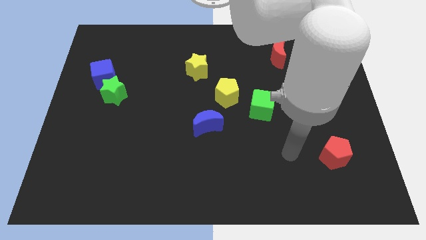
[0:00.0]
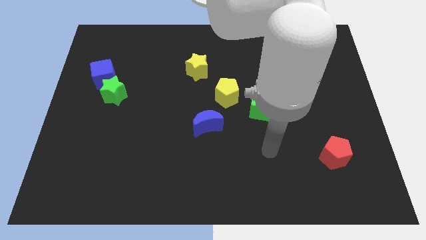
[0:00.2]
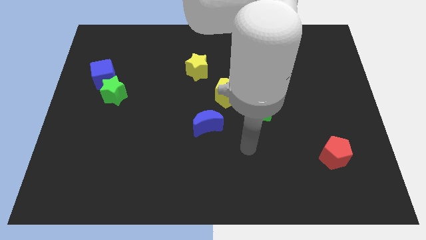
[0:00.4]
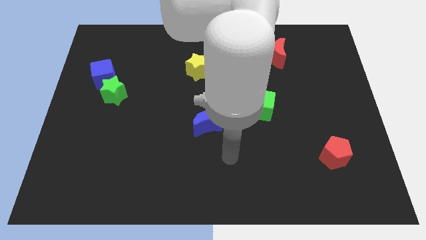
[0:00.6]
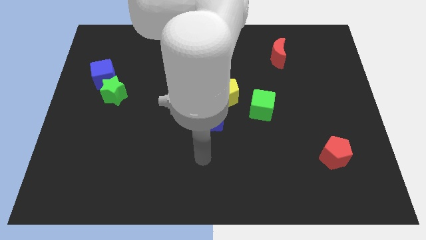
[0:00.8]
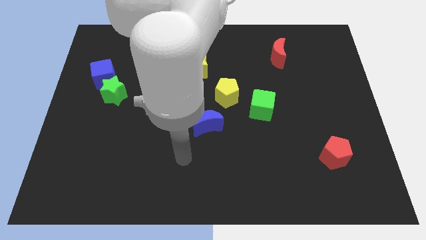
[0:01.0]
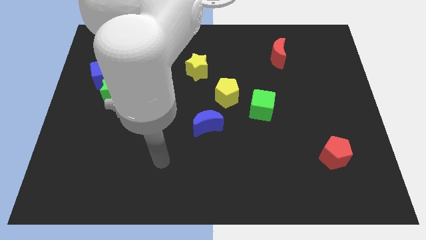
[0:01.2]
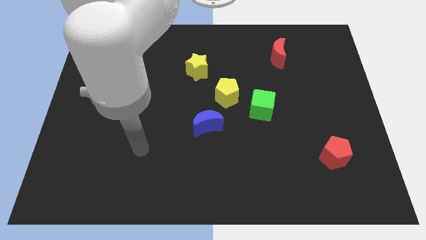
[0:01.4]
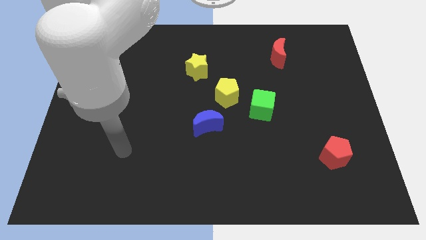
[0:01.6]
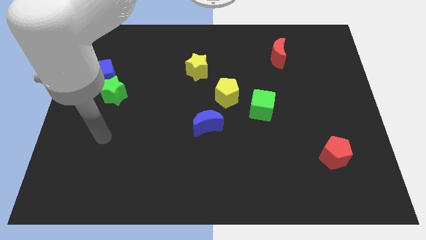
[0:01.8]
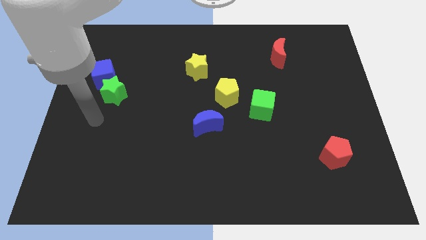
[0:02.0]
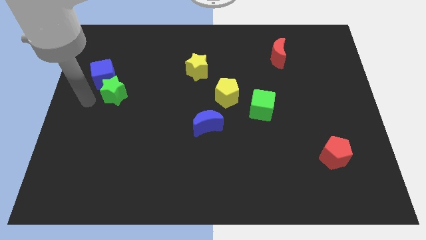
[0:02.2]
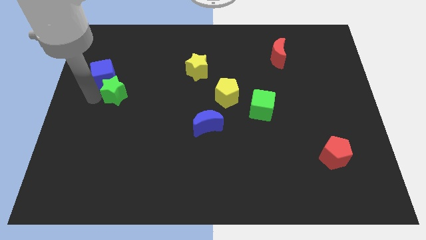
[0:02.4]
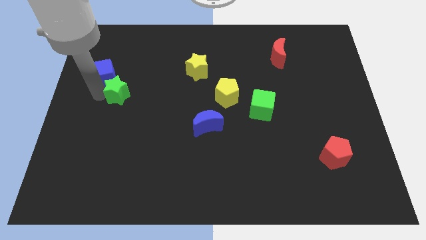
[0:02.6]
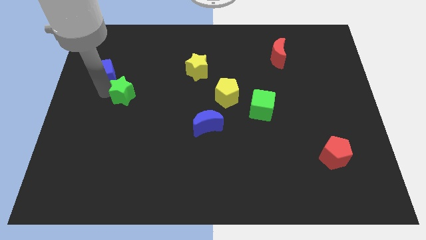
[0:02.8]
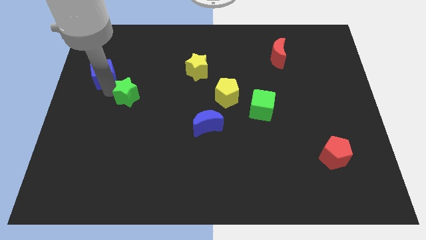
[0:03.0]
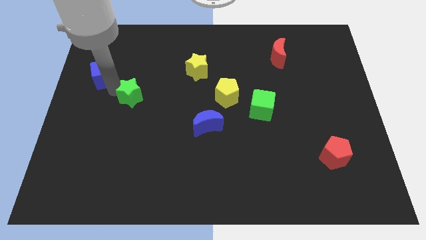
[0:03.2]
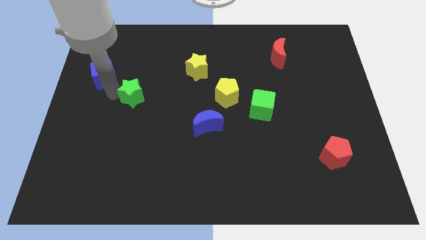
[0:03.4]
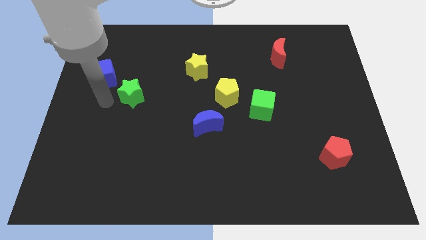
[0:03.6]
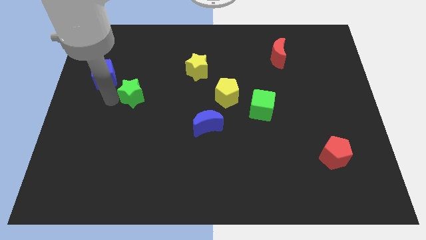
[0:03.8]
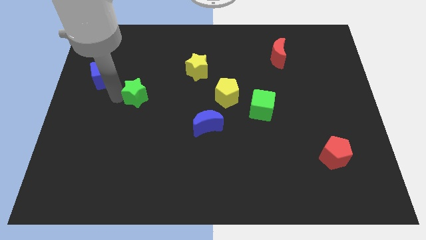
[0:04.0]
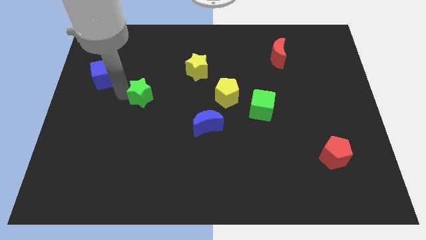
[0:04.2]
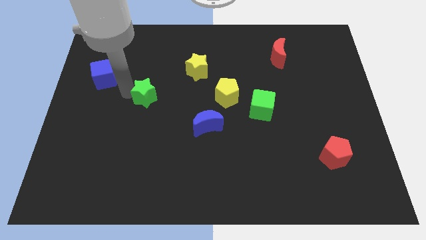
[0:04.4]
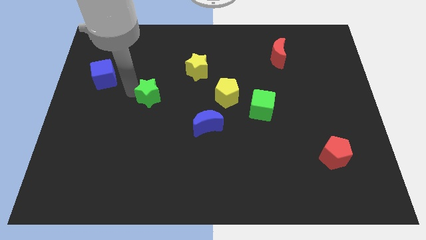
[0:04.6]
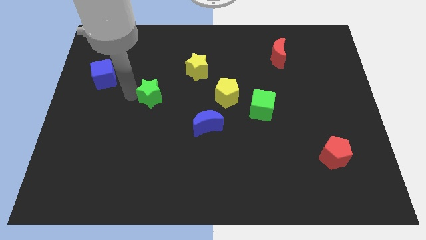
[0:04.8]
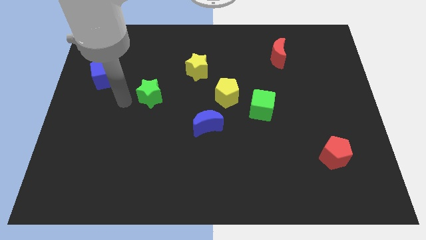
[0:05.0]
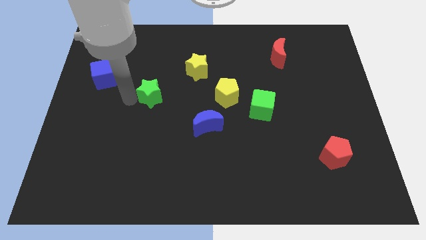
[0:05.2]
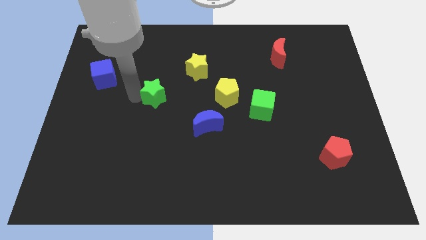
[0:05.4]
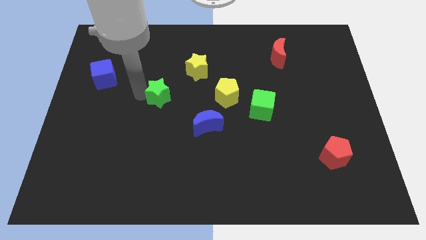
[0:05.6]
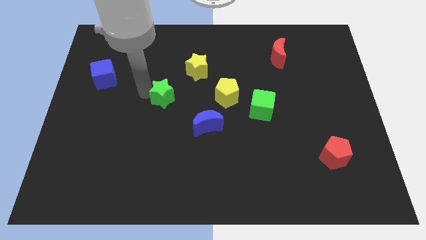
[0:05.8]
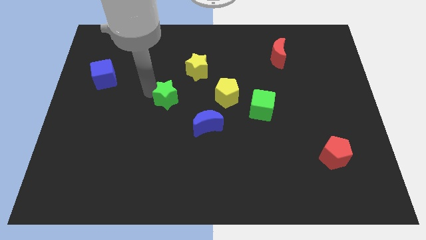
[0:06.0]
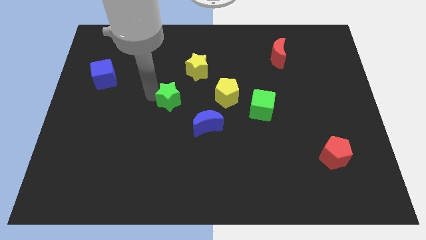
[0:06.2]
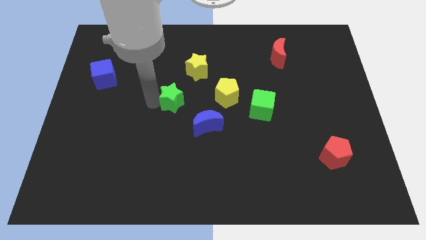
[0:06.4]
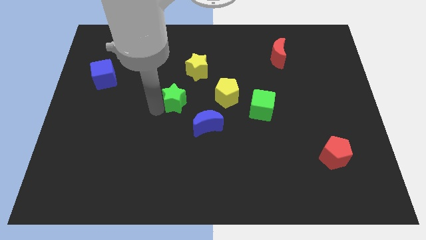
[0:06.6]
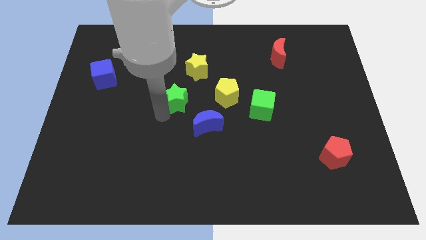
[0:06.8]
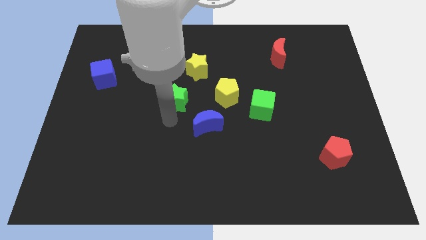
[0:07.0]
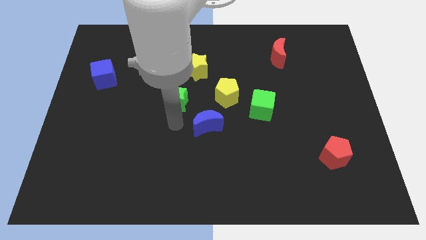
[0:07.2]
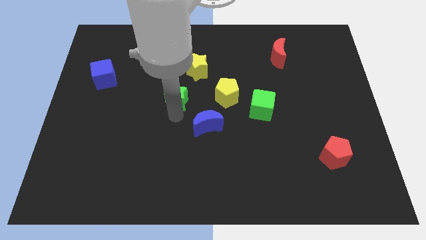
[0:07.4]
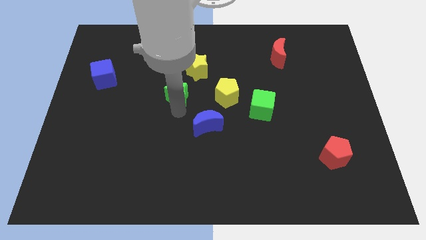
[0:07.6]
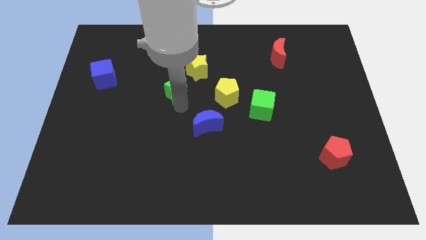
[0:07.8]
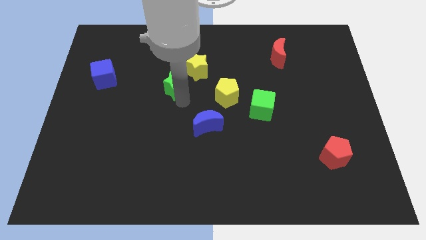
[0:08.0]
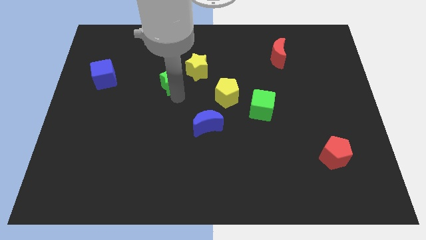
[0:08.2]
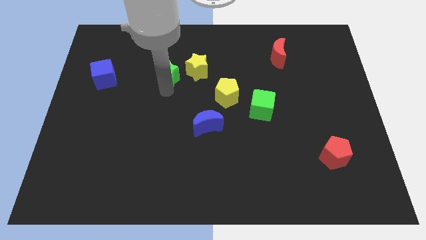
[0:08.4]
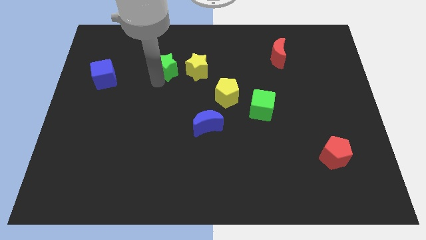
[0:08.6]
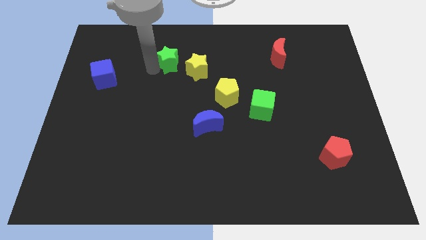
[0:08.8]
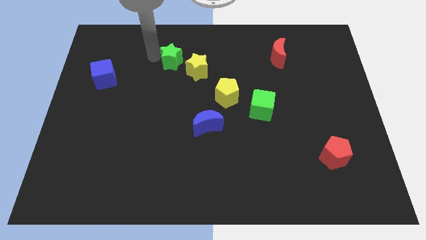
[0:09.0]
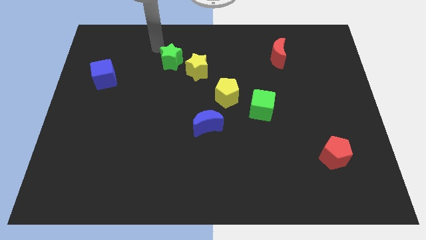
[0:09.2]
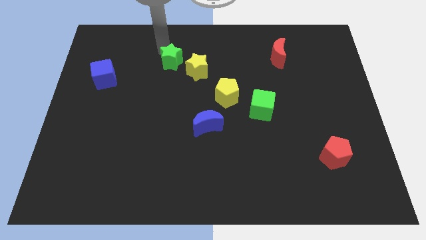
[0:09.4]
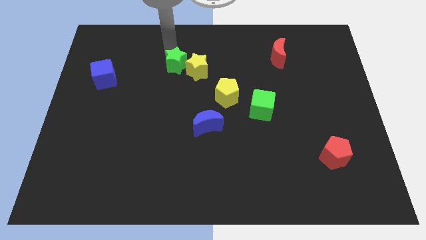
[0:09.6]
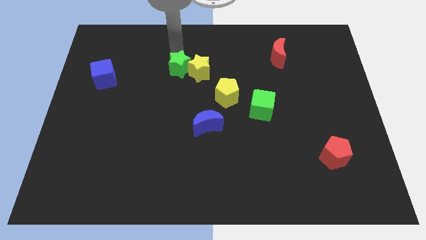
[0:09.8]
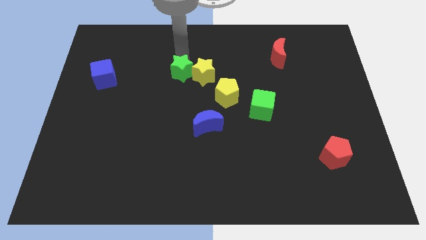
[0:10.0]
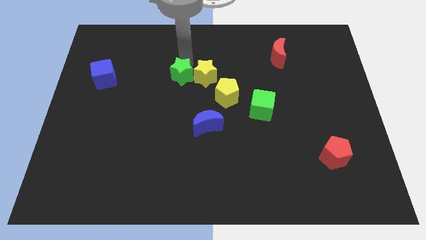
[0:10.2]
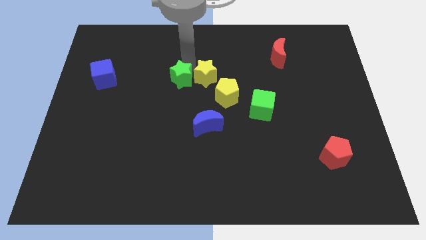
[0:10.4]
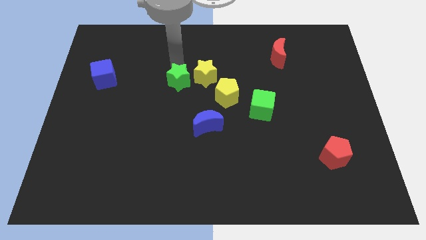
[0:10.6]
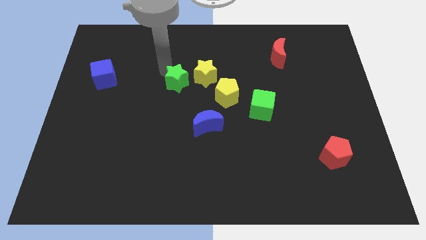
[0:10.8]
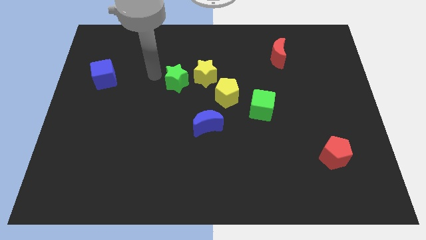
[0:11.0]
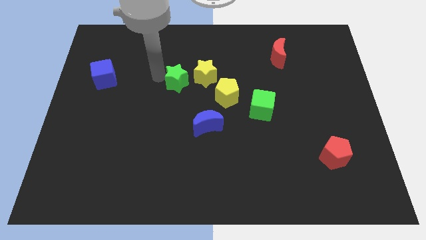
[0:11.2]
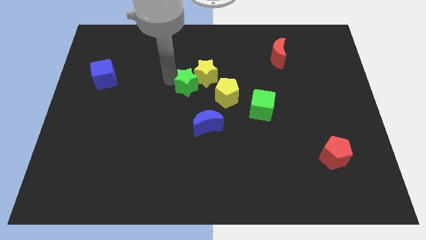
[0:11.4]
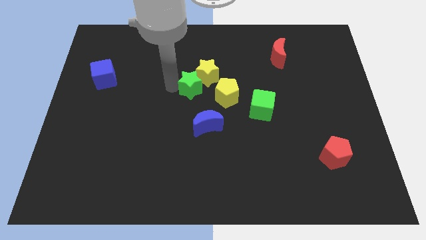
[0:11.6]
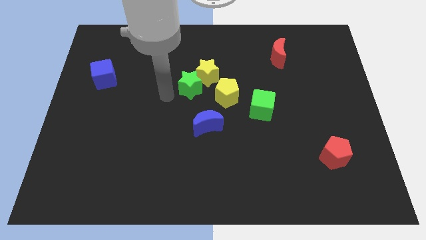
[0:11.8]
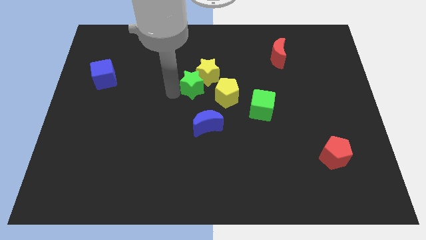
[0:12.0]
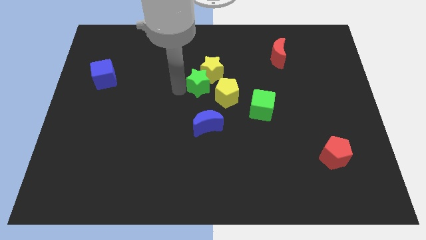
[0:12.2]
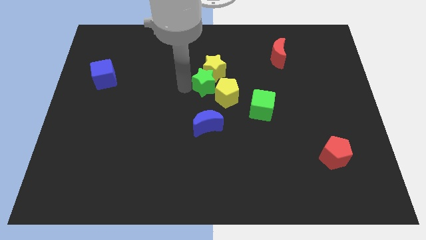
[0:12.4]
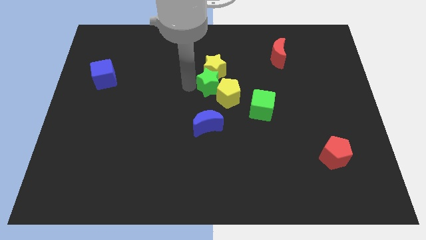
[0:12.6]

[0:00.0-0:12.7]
move the green star to the top of the yellow pentagon

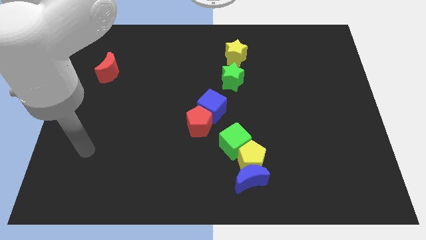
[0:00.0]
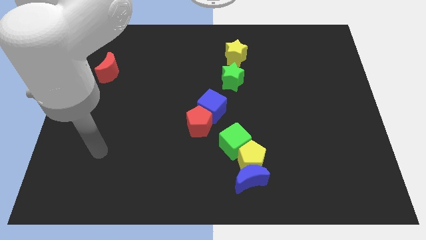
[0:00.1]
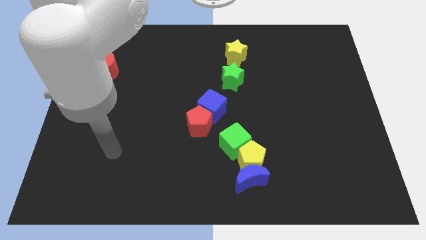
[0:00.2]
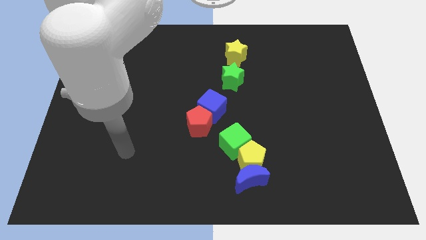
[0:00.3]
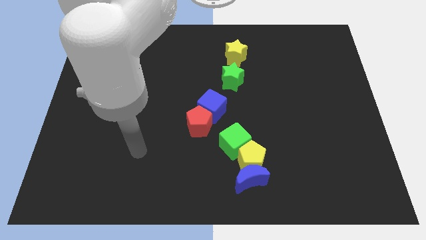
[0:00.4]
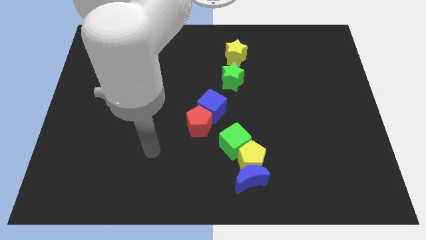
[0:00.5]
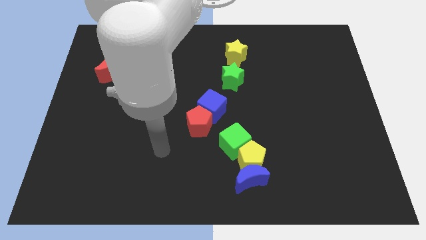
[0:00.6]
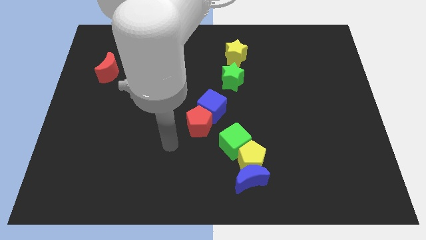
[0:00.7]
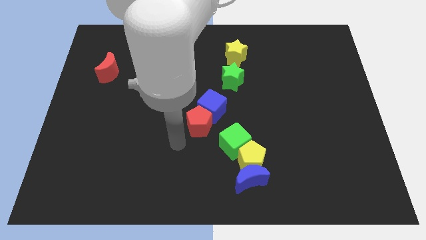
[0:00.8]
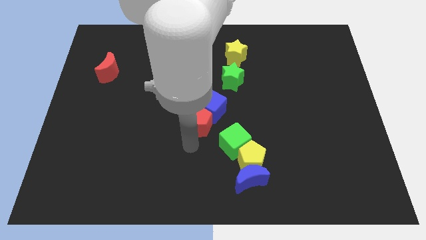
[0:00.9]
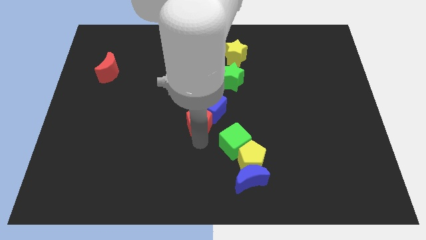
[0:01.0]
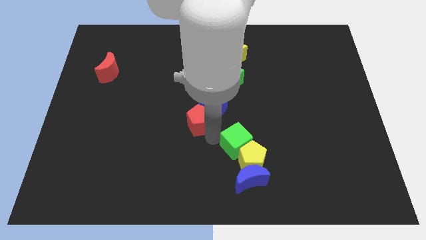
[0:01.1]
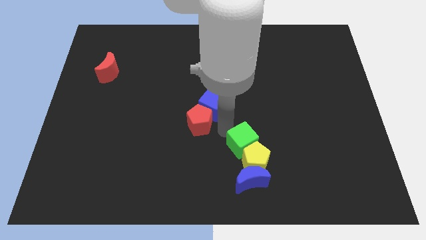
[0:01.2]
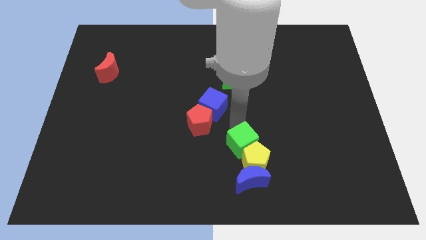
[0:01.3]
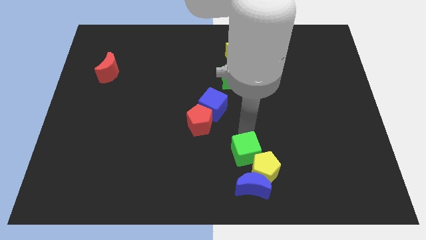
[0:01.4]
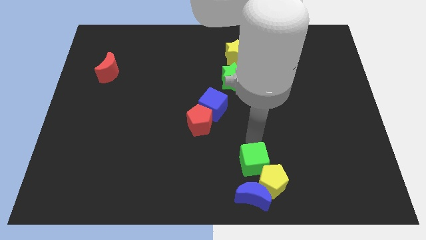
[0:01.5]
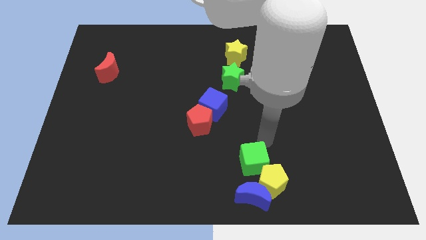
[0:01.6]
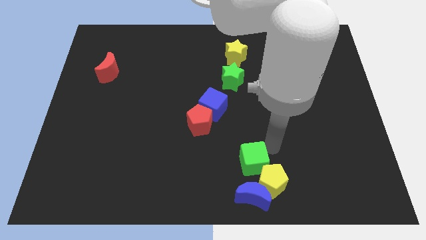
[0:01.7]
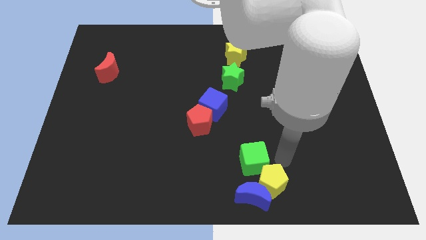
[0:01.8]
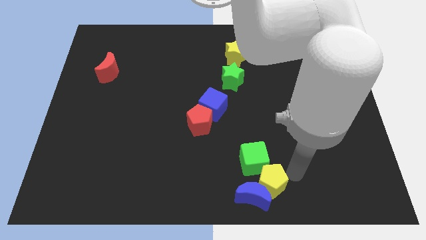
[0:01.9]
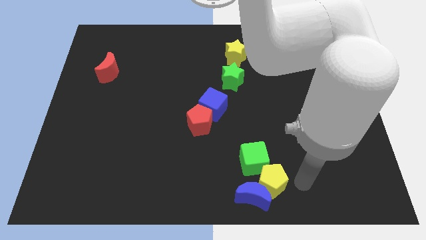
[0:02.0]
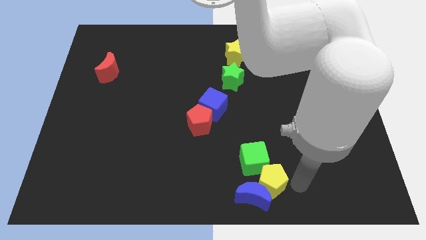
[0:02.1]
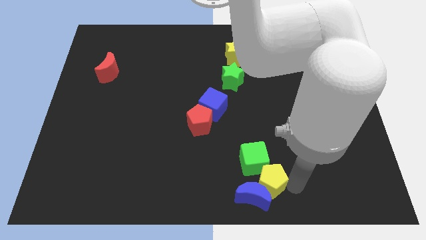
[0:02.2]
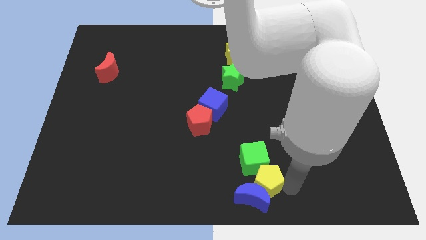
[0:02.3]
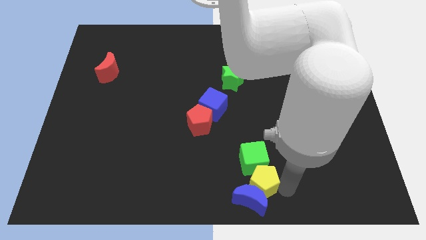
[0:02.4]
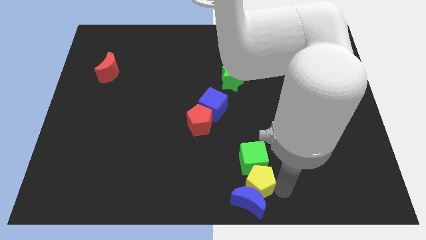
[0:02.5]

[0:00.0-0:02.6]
push the yellow pentagon to the bottom left side of the green cube
